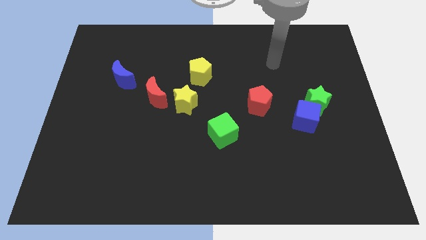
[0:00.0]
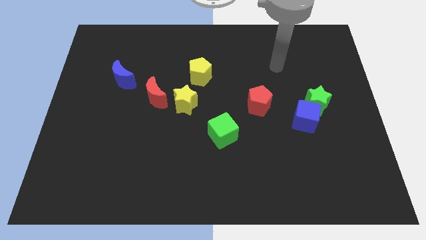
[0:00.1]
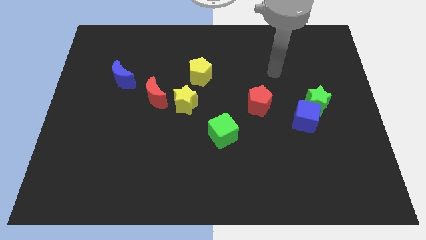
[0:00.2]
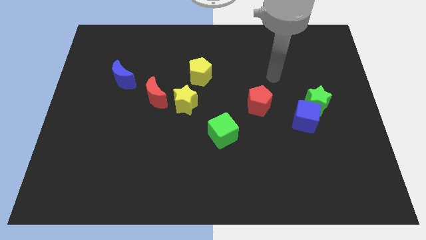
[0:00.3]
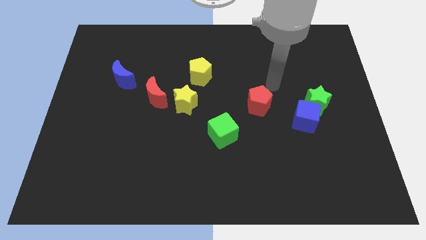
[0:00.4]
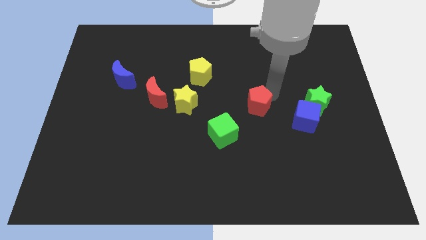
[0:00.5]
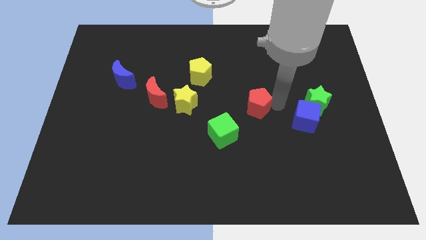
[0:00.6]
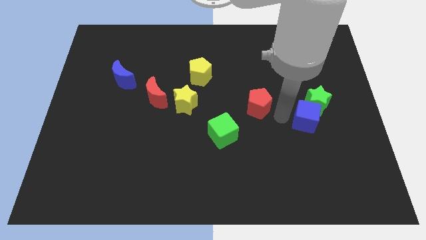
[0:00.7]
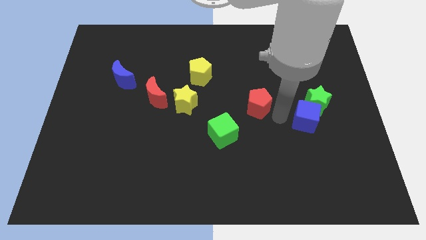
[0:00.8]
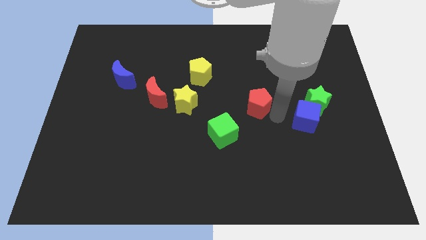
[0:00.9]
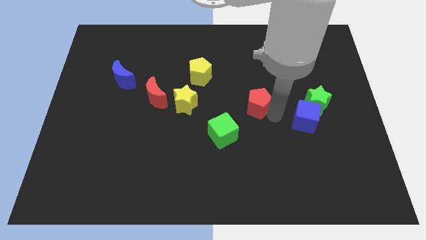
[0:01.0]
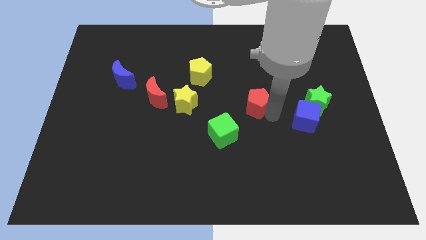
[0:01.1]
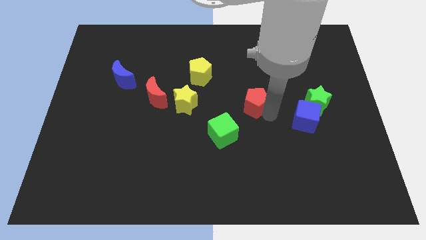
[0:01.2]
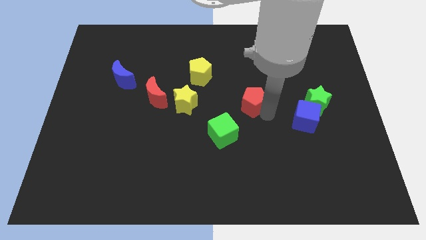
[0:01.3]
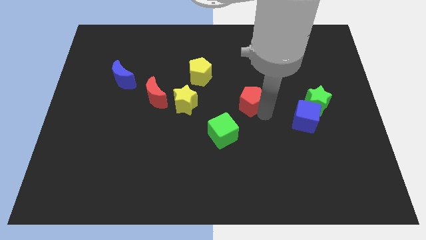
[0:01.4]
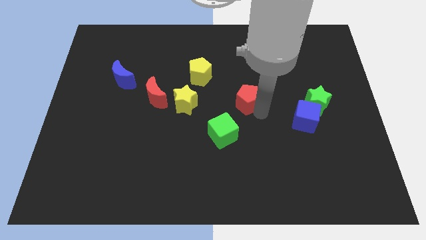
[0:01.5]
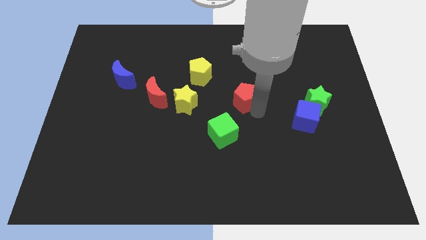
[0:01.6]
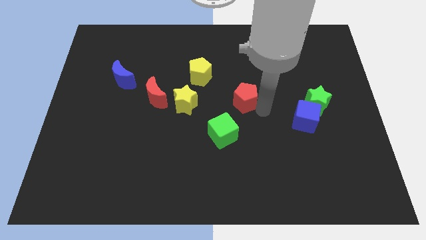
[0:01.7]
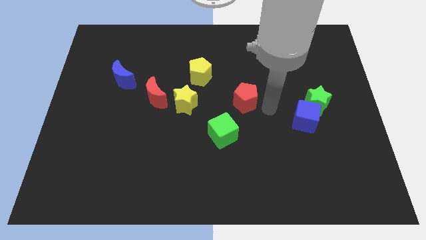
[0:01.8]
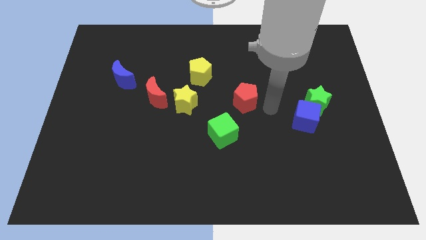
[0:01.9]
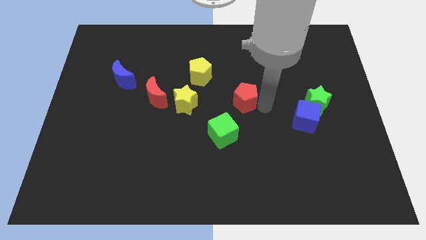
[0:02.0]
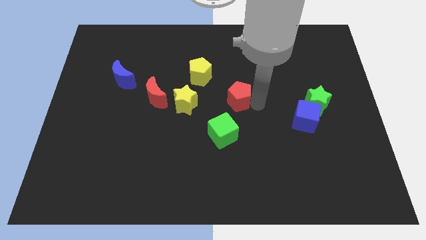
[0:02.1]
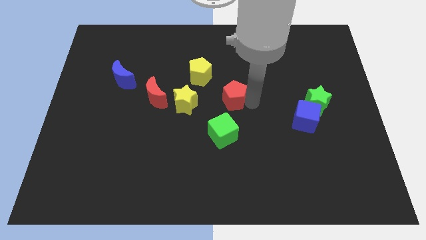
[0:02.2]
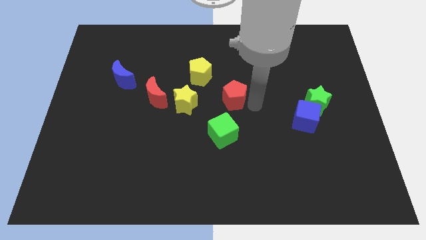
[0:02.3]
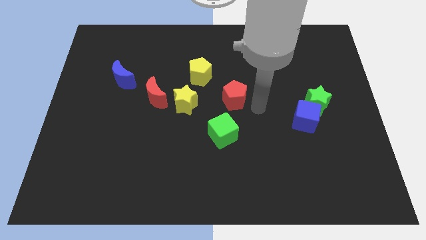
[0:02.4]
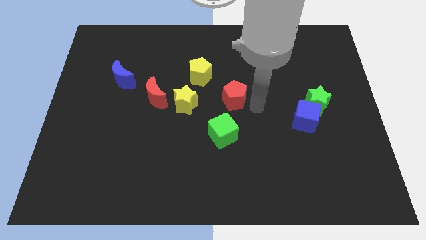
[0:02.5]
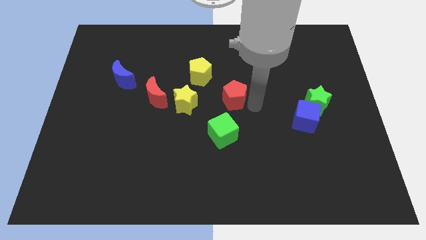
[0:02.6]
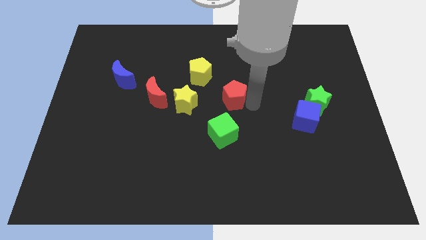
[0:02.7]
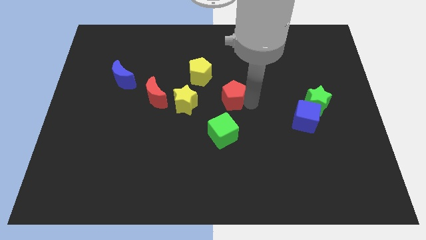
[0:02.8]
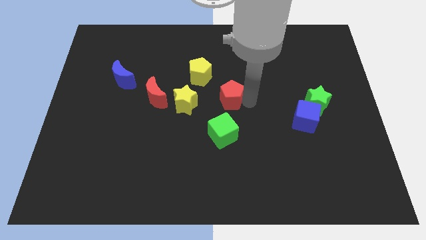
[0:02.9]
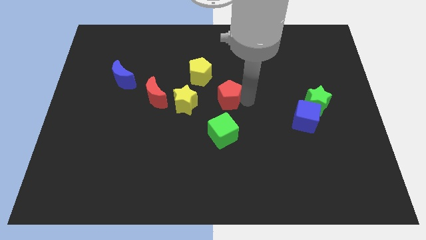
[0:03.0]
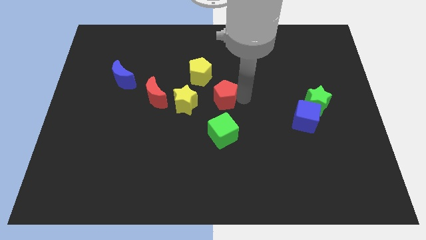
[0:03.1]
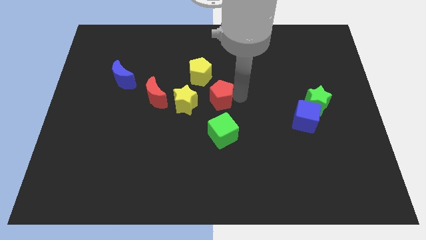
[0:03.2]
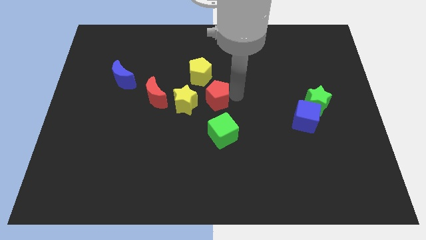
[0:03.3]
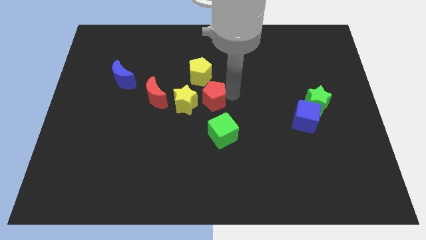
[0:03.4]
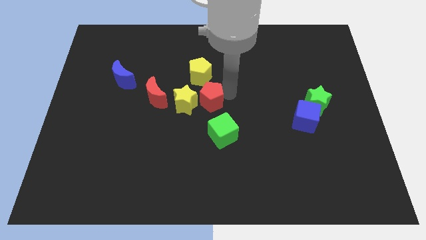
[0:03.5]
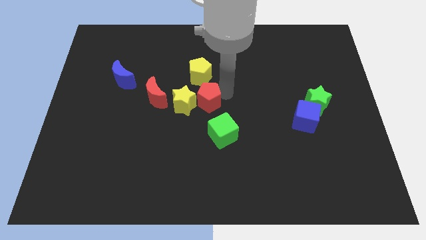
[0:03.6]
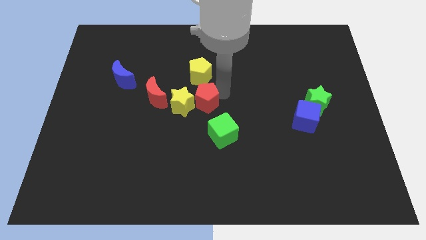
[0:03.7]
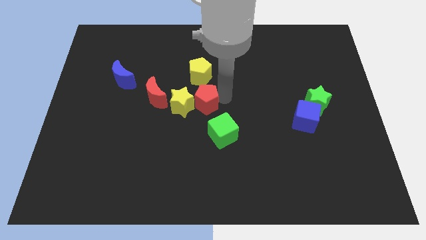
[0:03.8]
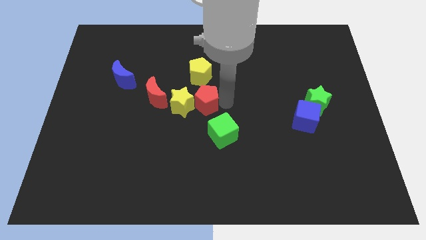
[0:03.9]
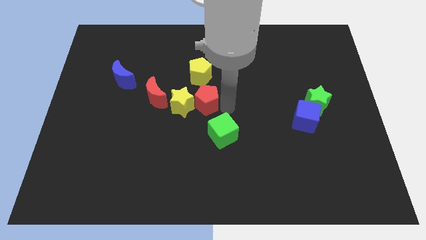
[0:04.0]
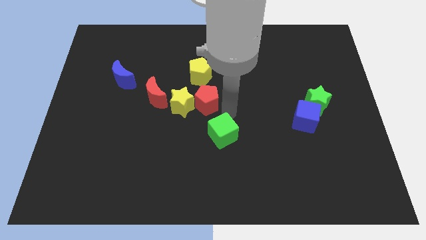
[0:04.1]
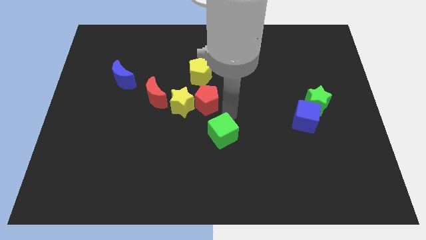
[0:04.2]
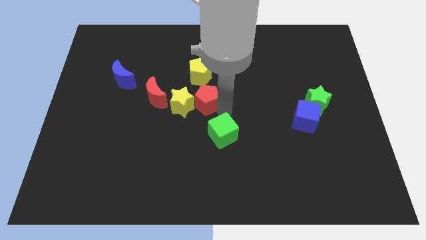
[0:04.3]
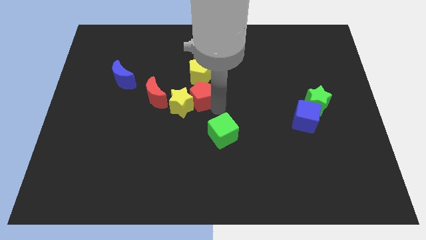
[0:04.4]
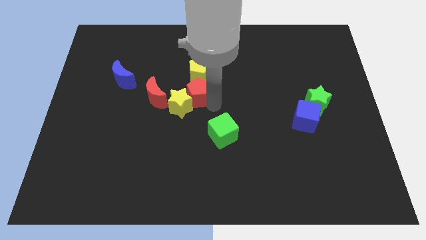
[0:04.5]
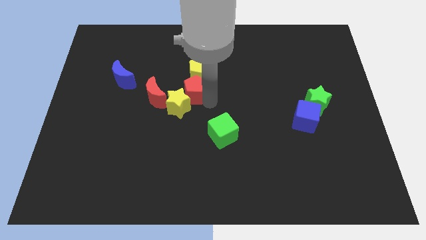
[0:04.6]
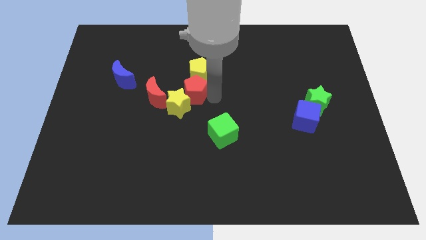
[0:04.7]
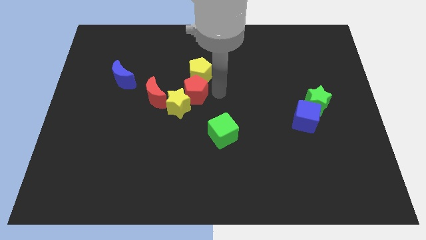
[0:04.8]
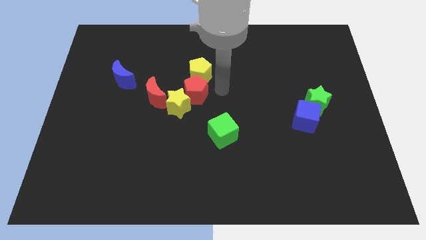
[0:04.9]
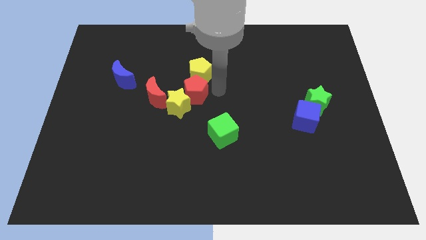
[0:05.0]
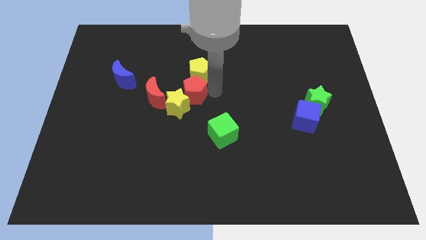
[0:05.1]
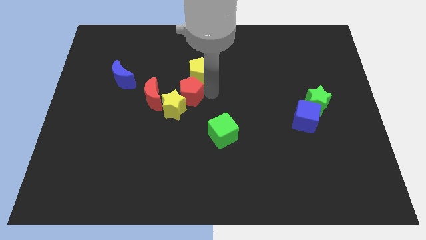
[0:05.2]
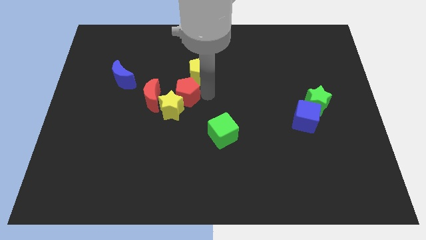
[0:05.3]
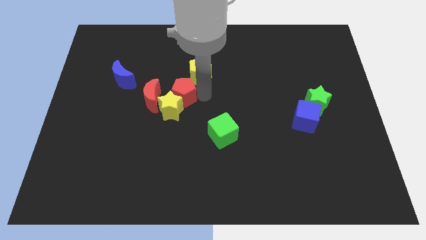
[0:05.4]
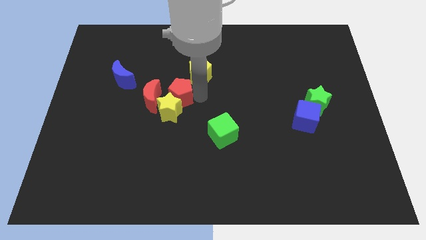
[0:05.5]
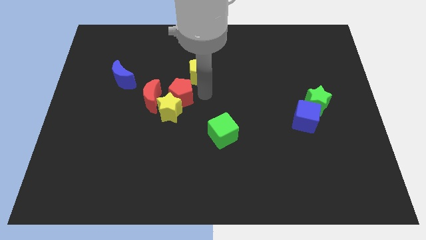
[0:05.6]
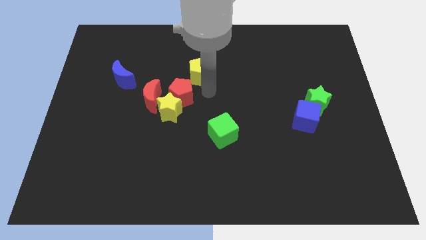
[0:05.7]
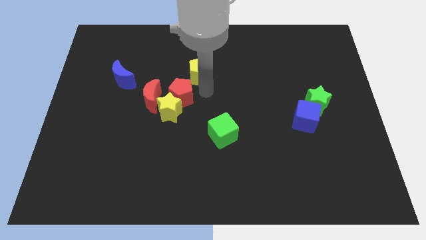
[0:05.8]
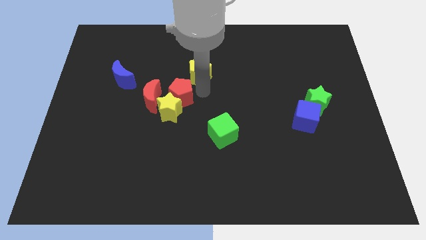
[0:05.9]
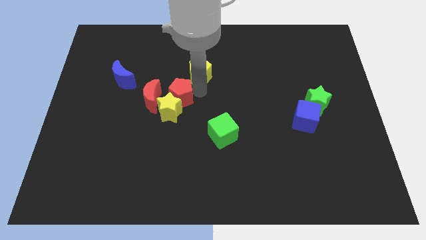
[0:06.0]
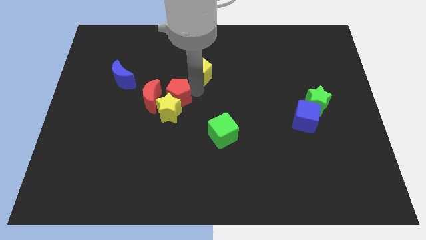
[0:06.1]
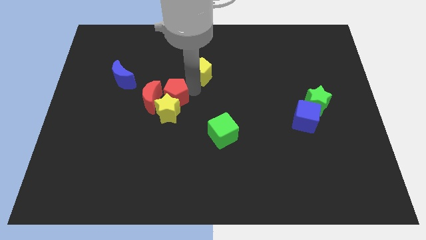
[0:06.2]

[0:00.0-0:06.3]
put the red pentagon towards the red moon

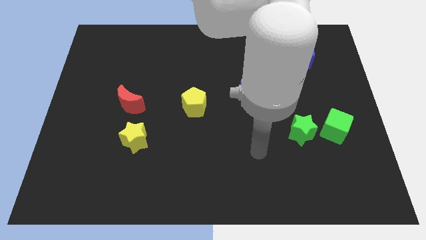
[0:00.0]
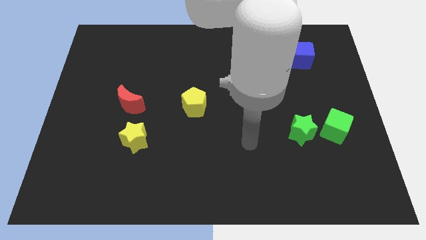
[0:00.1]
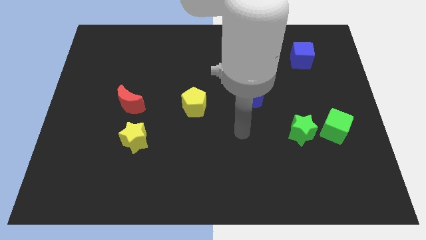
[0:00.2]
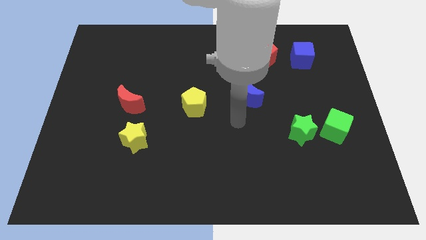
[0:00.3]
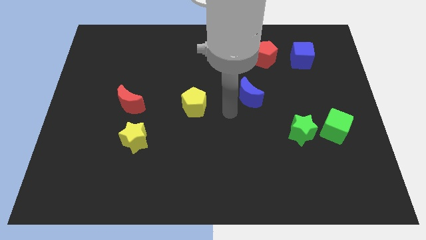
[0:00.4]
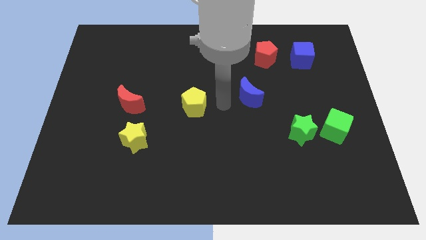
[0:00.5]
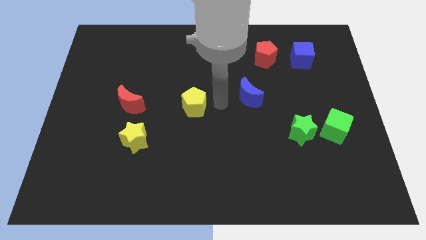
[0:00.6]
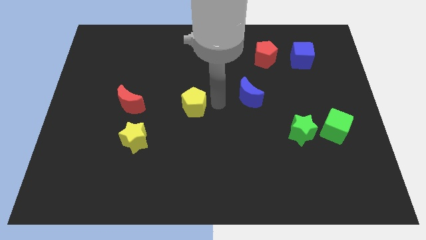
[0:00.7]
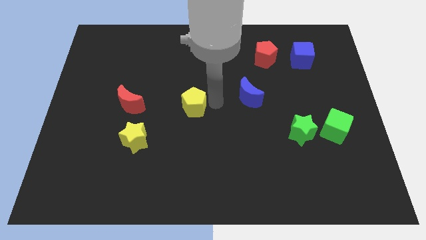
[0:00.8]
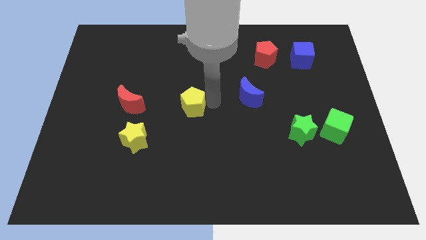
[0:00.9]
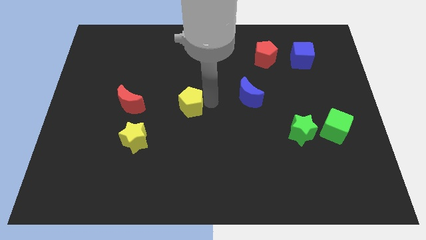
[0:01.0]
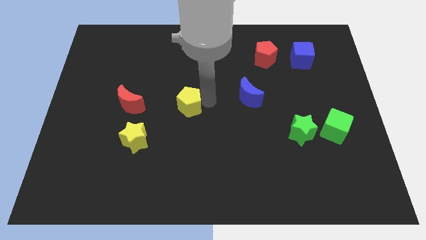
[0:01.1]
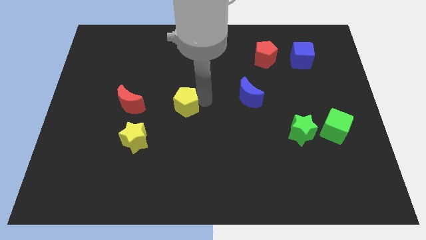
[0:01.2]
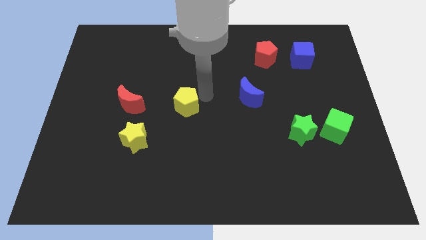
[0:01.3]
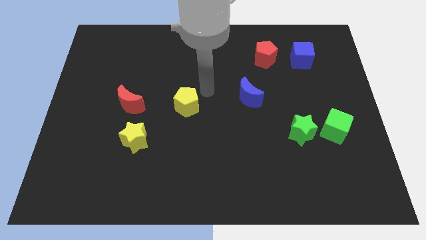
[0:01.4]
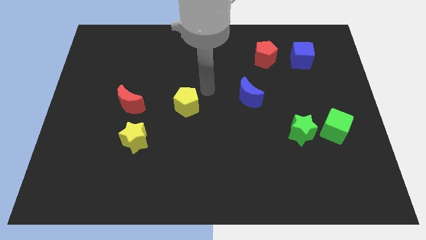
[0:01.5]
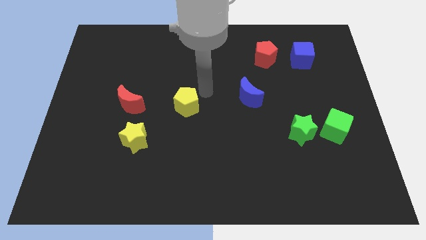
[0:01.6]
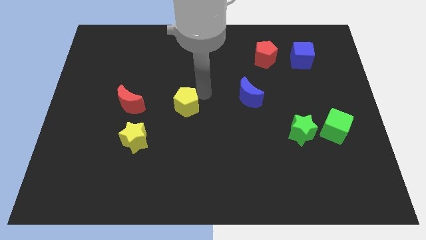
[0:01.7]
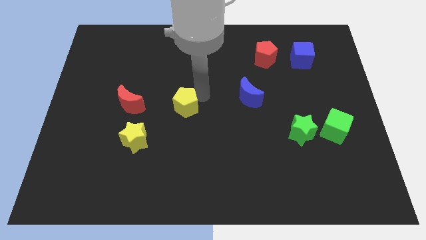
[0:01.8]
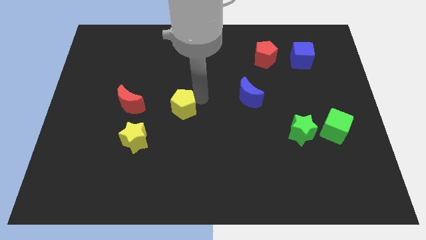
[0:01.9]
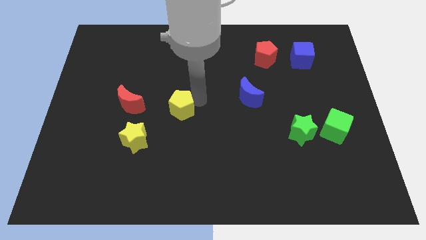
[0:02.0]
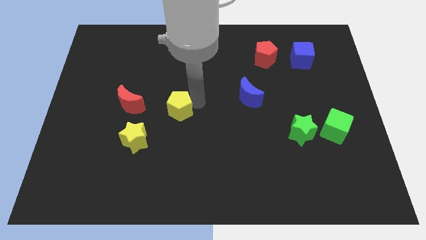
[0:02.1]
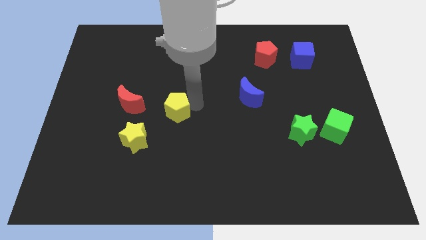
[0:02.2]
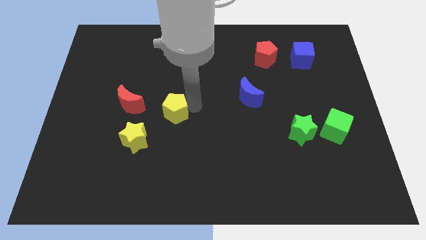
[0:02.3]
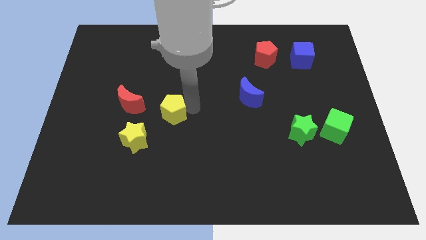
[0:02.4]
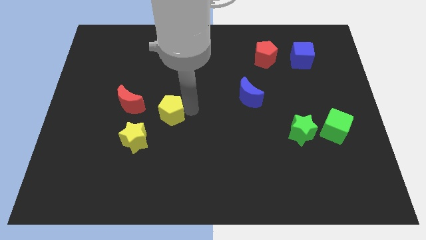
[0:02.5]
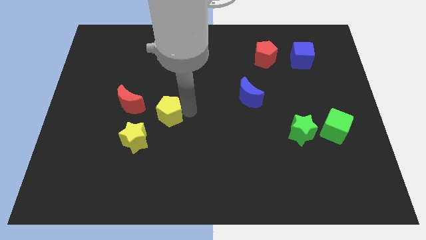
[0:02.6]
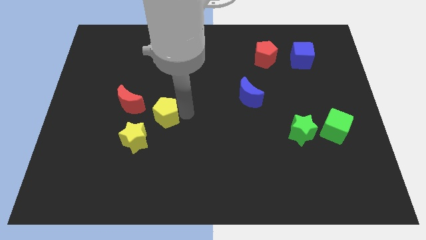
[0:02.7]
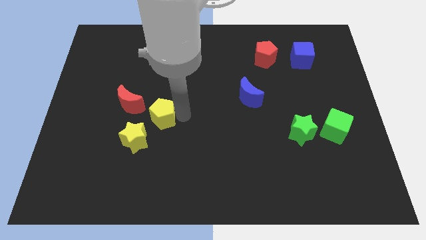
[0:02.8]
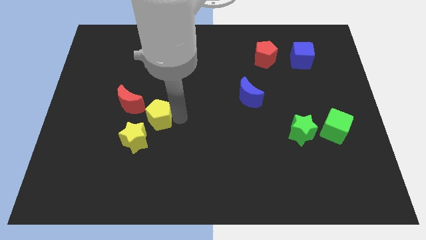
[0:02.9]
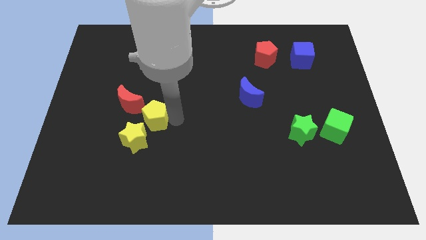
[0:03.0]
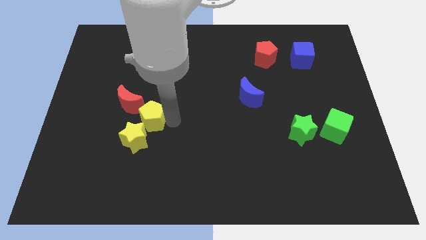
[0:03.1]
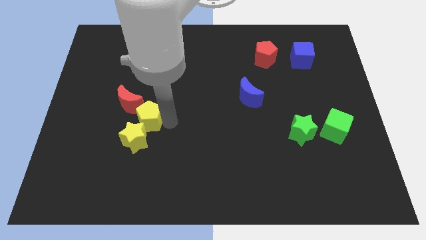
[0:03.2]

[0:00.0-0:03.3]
move the yellow pentagon to the yellow star
